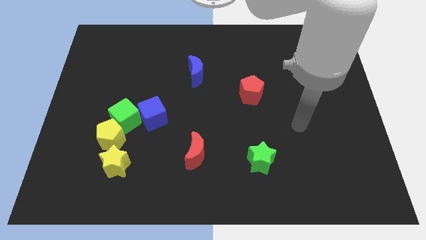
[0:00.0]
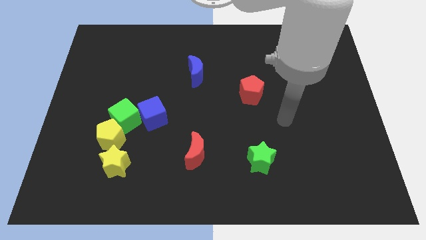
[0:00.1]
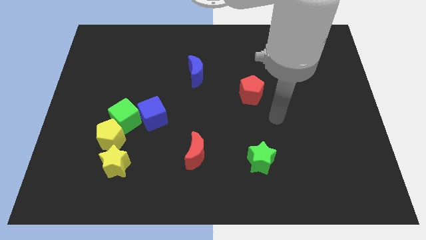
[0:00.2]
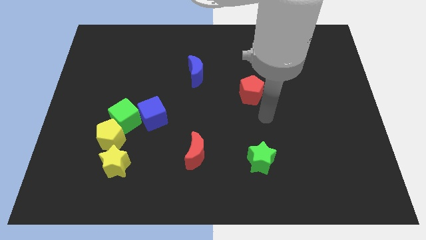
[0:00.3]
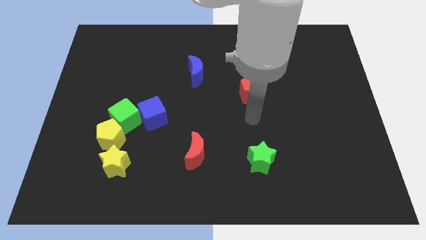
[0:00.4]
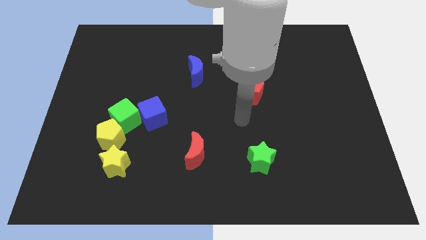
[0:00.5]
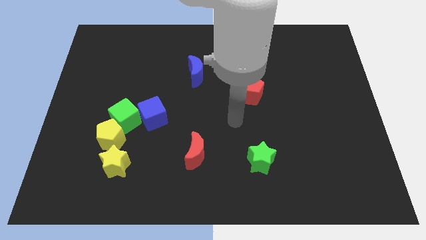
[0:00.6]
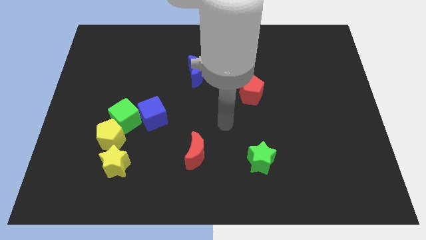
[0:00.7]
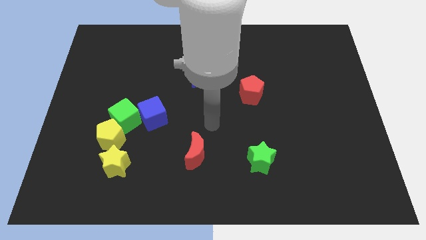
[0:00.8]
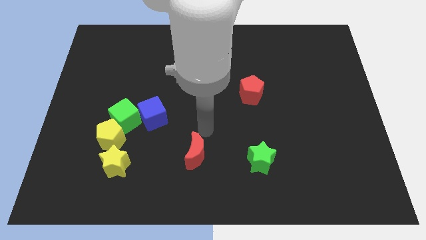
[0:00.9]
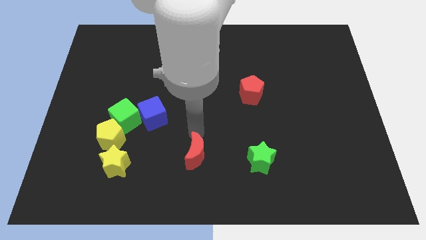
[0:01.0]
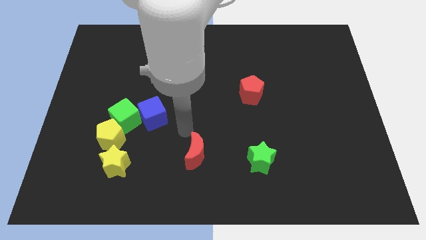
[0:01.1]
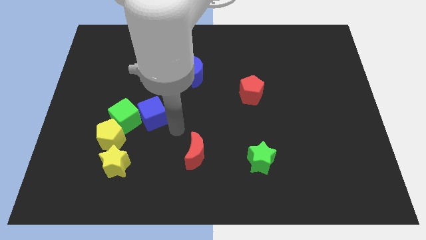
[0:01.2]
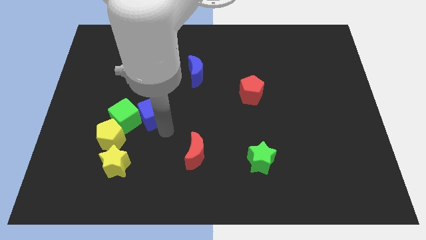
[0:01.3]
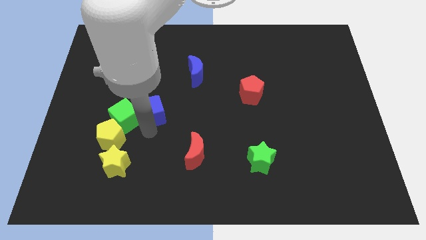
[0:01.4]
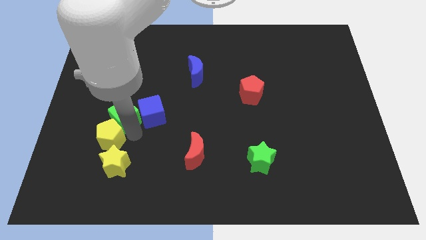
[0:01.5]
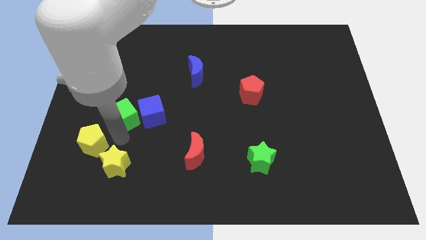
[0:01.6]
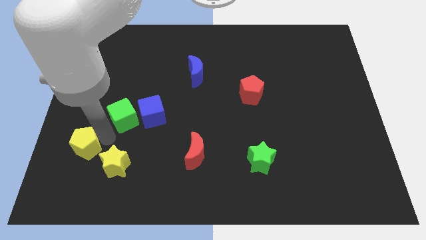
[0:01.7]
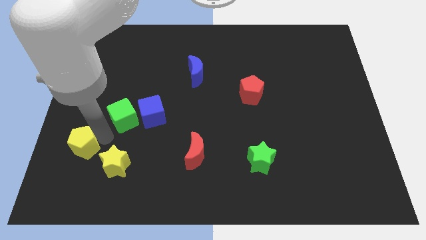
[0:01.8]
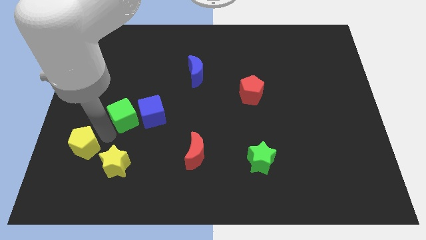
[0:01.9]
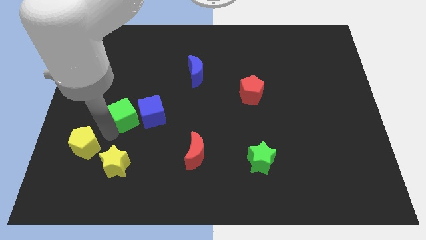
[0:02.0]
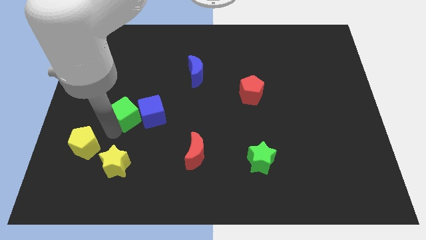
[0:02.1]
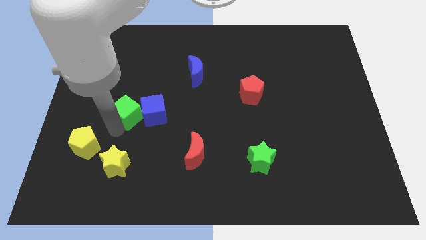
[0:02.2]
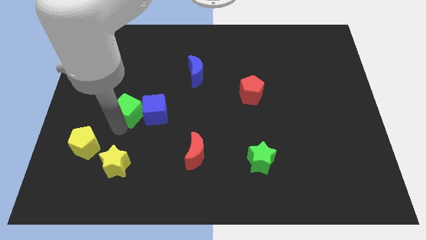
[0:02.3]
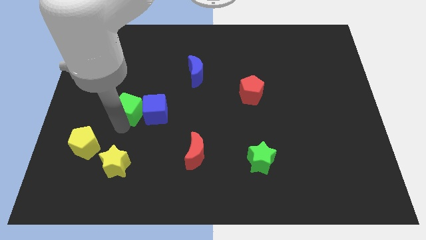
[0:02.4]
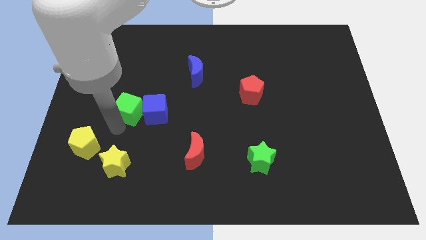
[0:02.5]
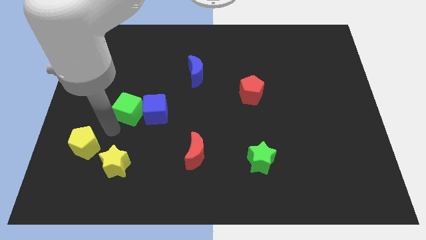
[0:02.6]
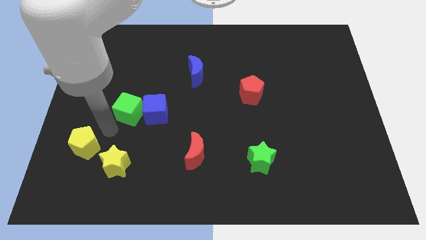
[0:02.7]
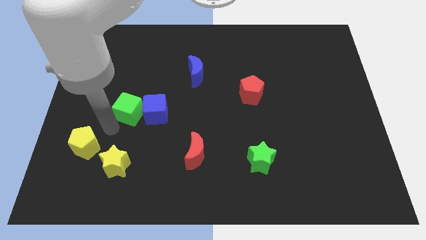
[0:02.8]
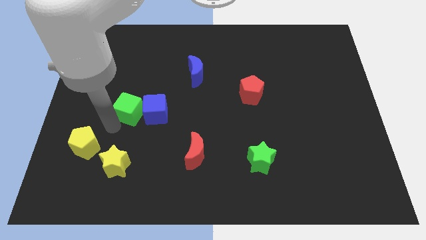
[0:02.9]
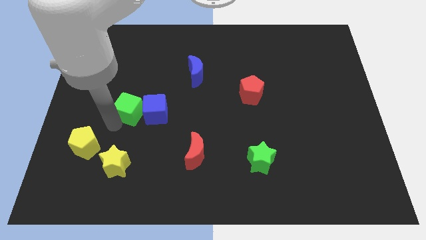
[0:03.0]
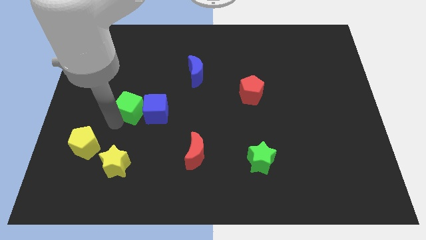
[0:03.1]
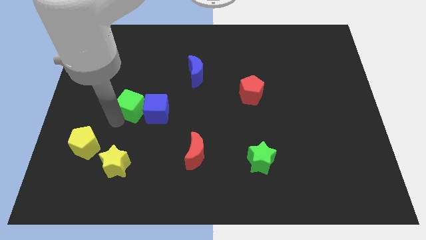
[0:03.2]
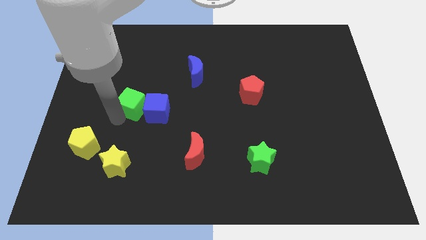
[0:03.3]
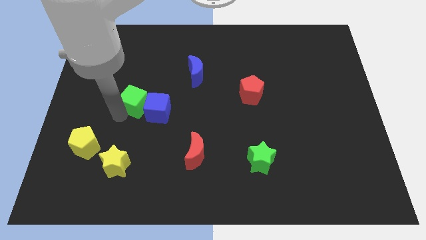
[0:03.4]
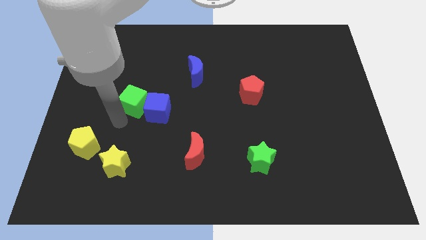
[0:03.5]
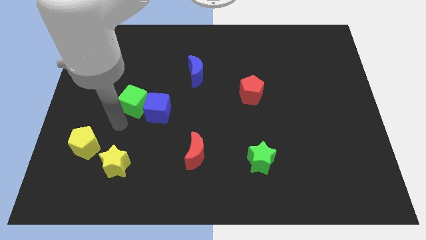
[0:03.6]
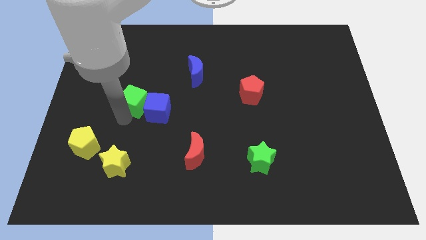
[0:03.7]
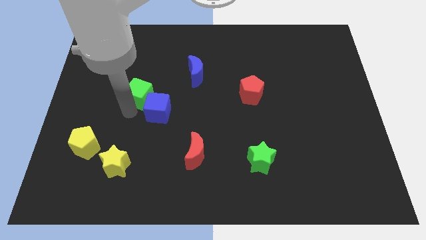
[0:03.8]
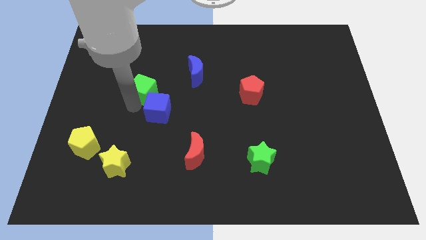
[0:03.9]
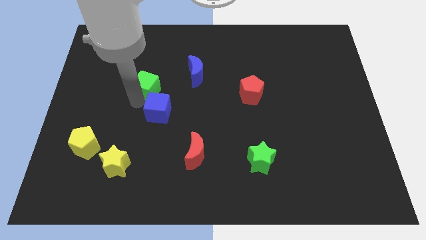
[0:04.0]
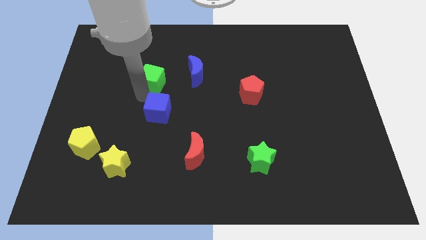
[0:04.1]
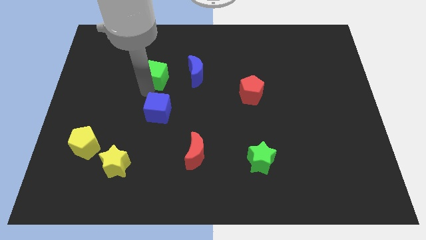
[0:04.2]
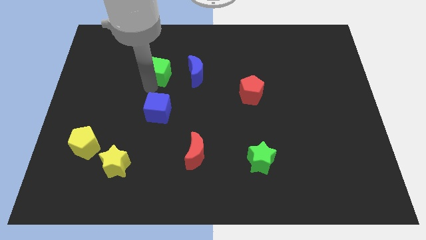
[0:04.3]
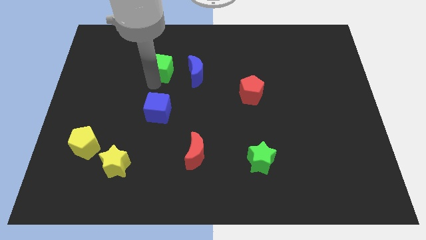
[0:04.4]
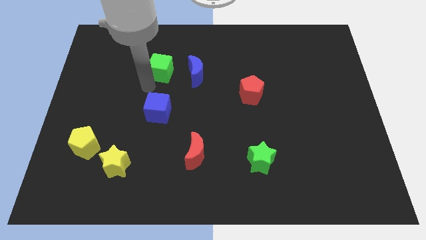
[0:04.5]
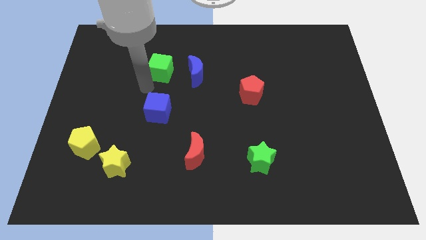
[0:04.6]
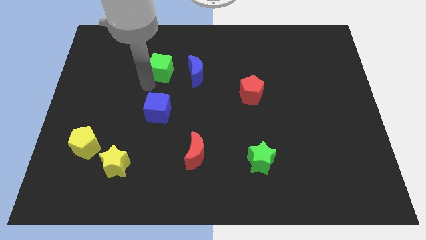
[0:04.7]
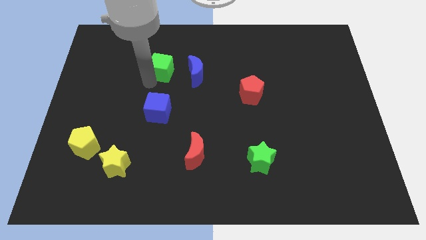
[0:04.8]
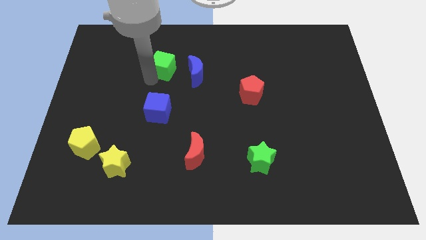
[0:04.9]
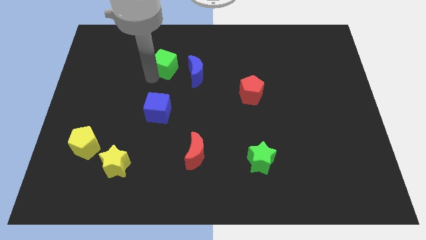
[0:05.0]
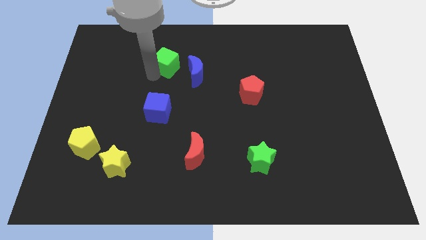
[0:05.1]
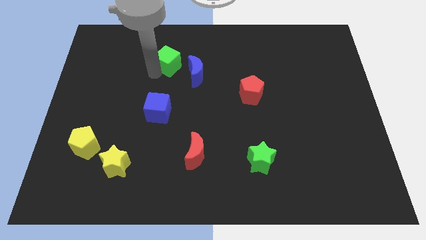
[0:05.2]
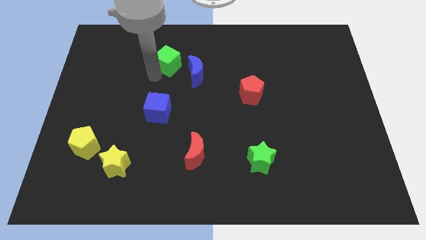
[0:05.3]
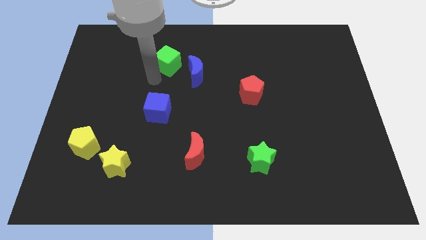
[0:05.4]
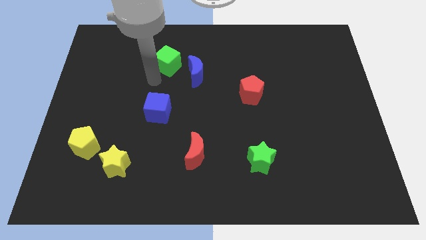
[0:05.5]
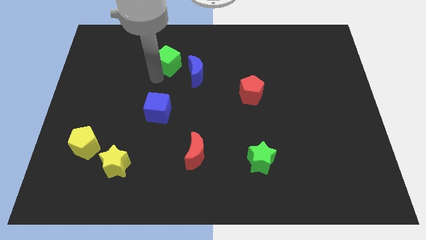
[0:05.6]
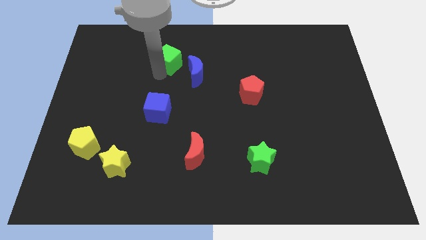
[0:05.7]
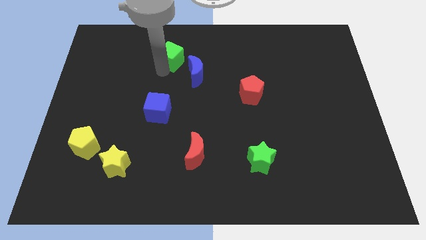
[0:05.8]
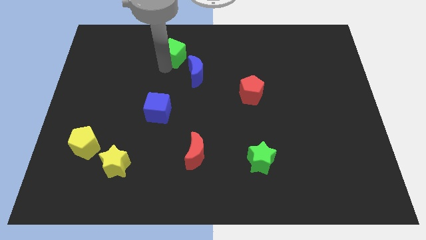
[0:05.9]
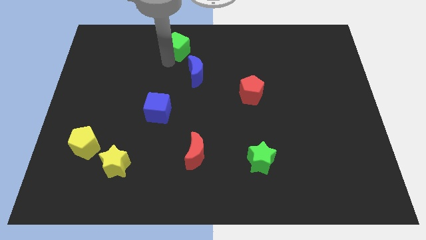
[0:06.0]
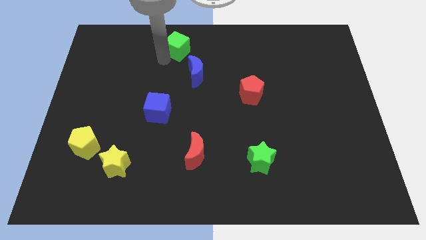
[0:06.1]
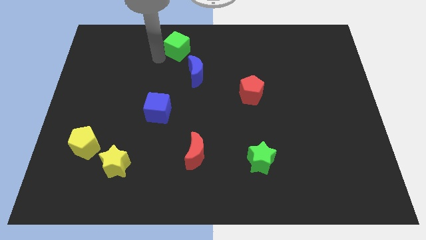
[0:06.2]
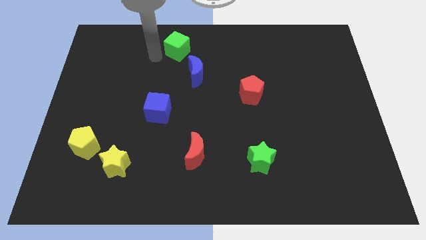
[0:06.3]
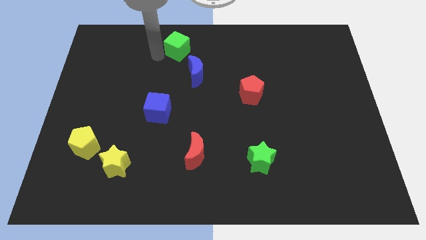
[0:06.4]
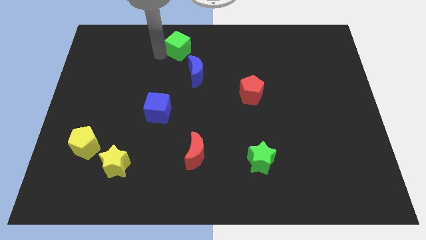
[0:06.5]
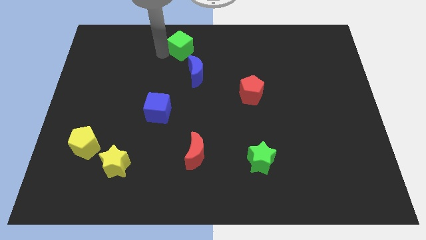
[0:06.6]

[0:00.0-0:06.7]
push the green cube to the top

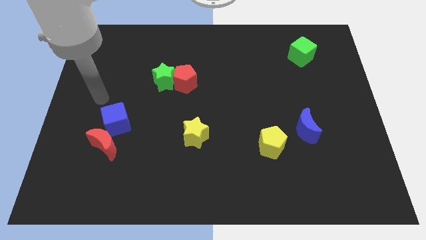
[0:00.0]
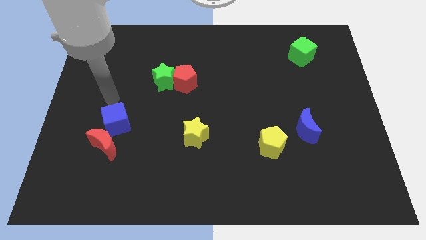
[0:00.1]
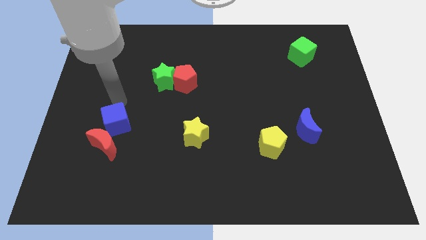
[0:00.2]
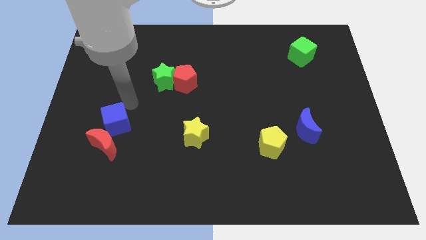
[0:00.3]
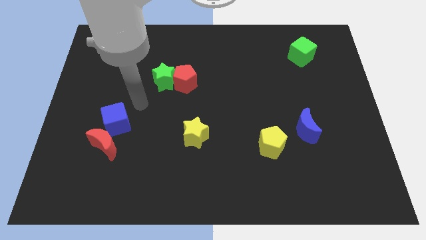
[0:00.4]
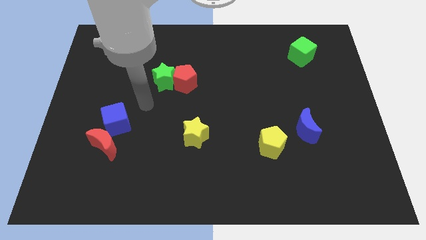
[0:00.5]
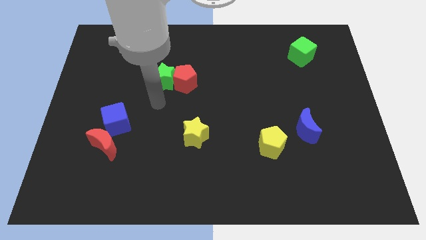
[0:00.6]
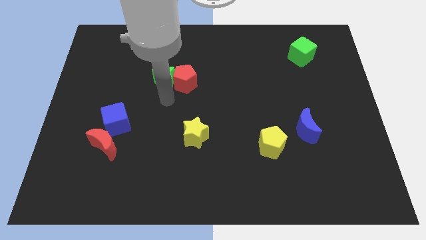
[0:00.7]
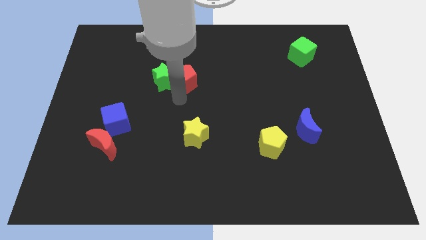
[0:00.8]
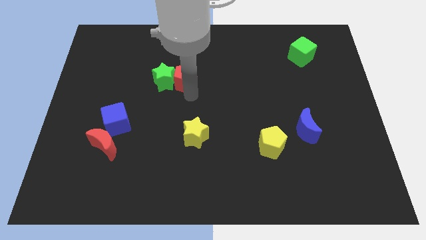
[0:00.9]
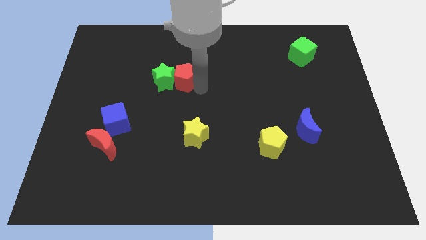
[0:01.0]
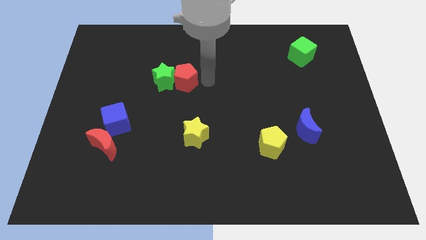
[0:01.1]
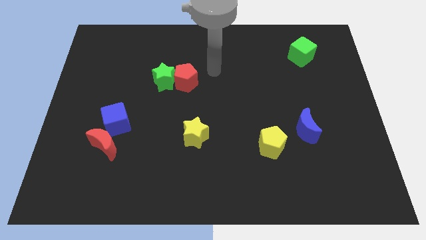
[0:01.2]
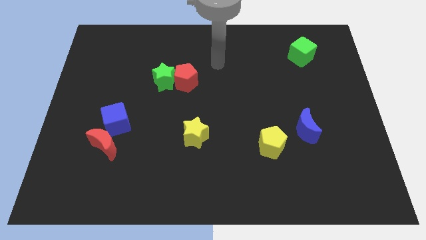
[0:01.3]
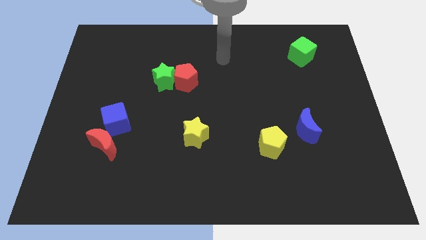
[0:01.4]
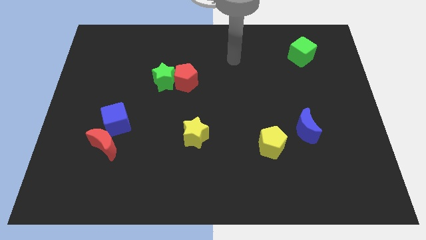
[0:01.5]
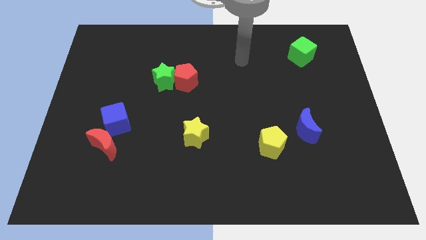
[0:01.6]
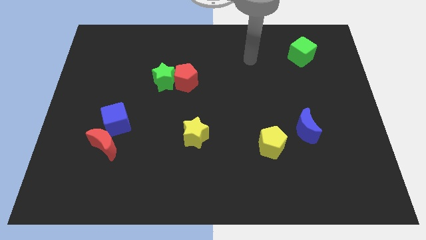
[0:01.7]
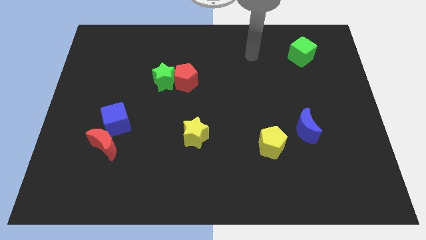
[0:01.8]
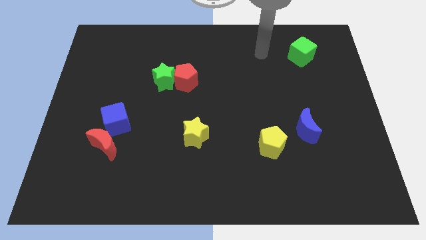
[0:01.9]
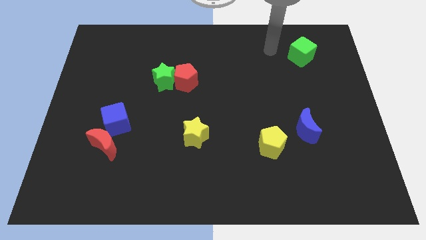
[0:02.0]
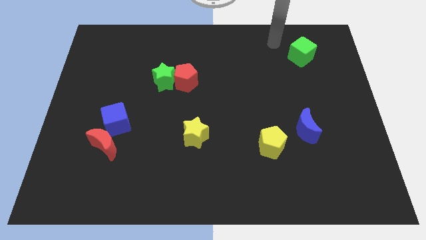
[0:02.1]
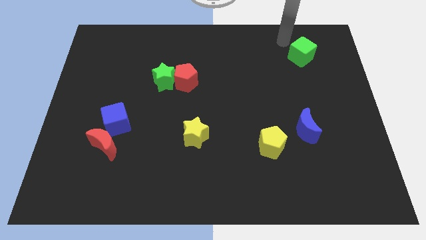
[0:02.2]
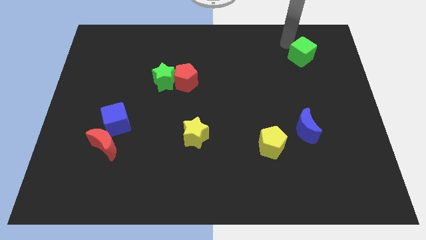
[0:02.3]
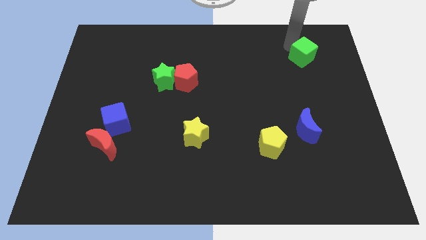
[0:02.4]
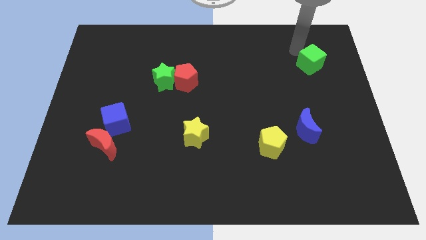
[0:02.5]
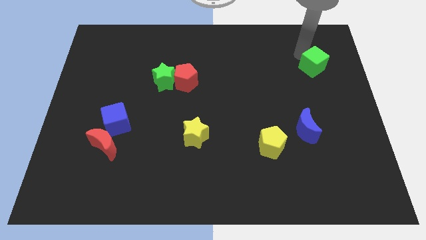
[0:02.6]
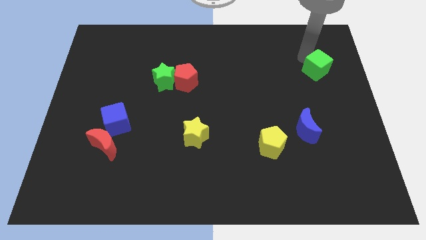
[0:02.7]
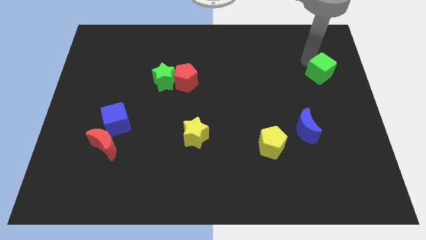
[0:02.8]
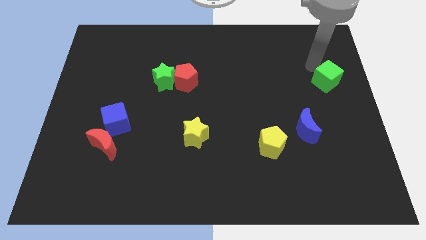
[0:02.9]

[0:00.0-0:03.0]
move the green cube to the center right
